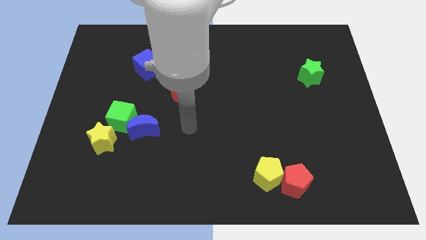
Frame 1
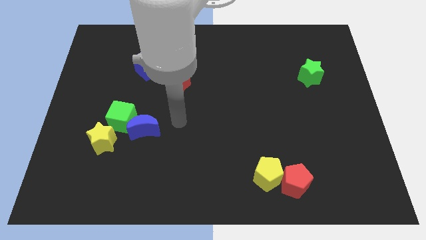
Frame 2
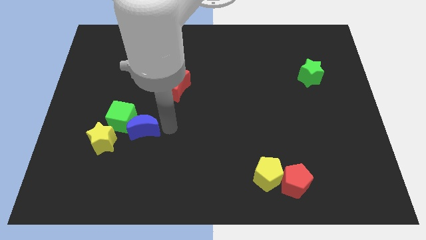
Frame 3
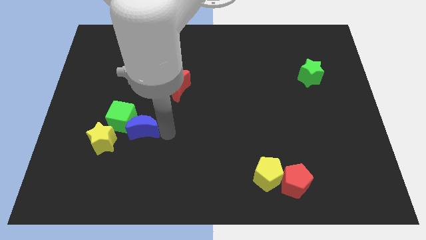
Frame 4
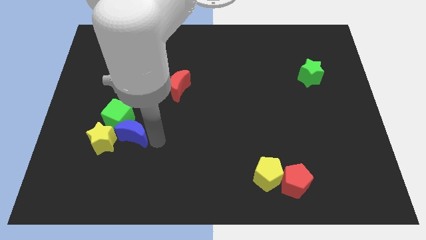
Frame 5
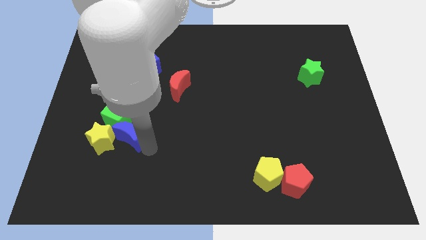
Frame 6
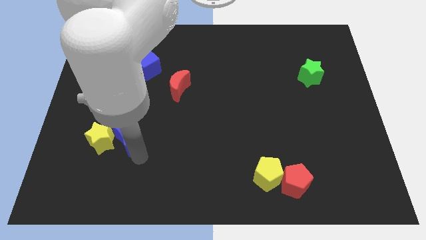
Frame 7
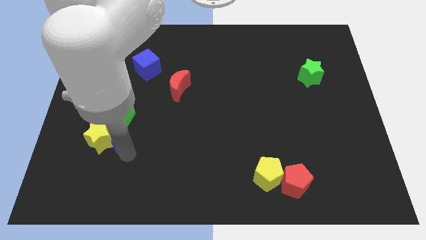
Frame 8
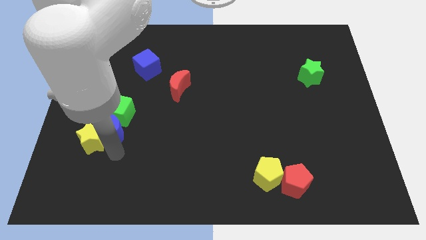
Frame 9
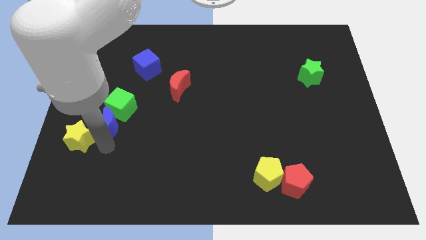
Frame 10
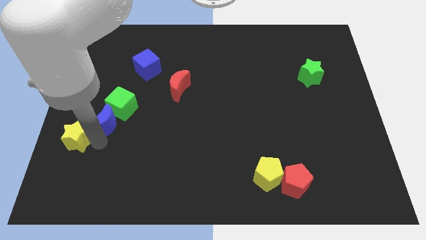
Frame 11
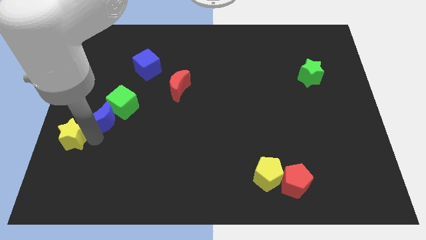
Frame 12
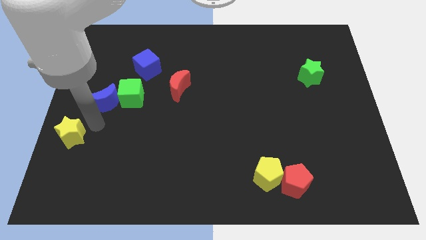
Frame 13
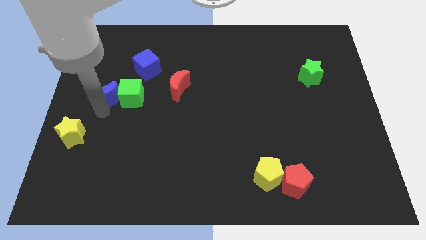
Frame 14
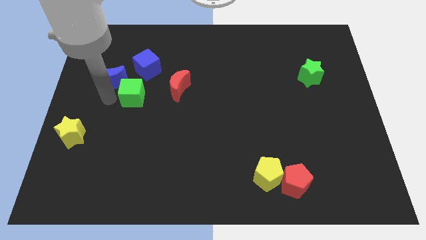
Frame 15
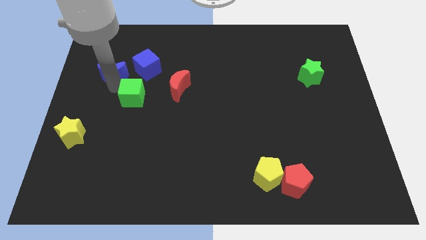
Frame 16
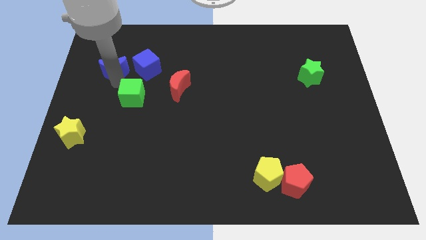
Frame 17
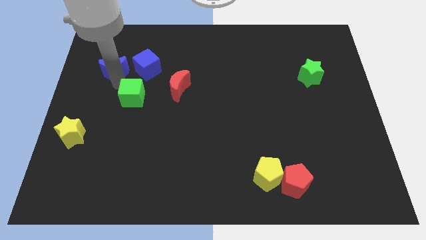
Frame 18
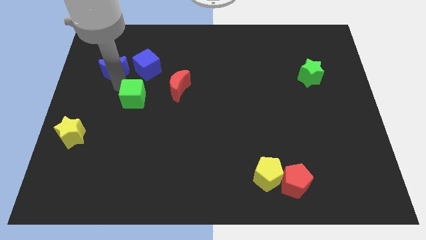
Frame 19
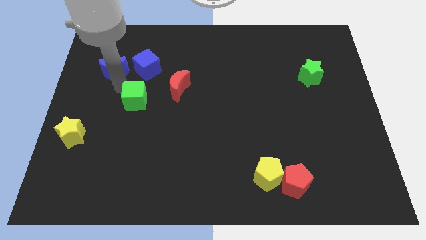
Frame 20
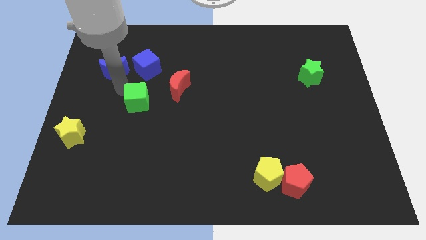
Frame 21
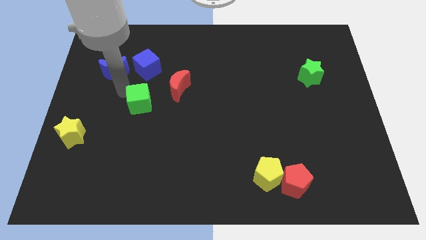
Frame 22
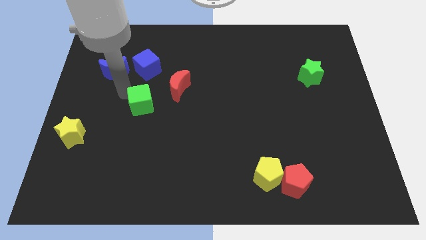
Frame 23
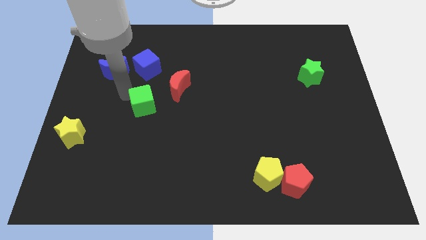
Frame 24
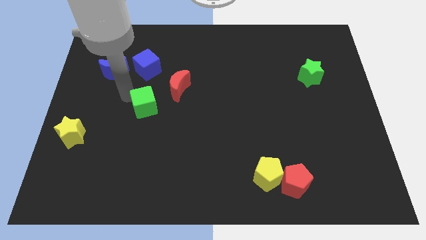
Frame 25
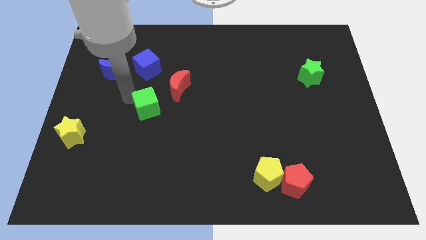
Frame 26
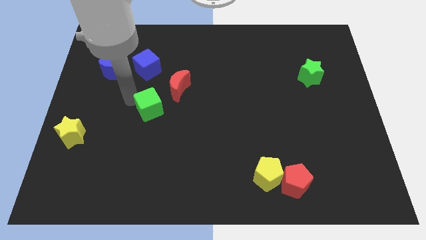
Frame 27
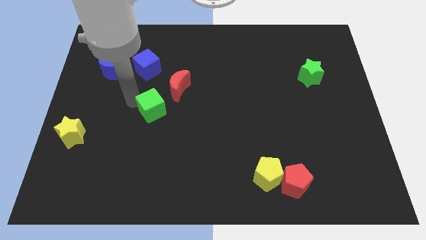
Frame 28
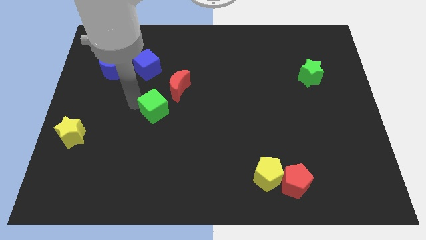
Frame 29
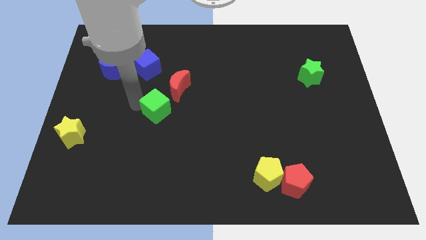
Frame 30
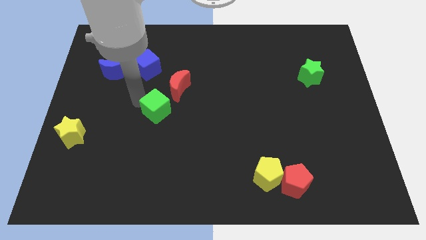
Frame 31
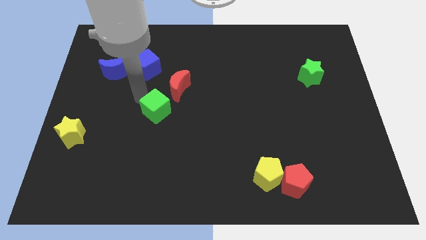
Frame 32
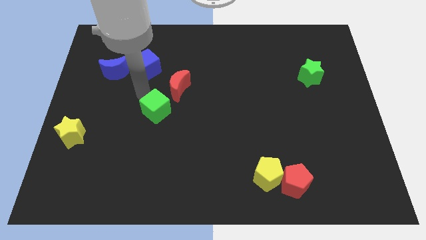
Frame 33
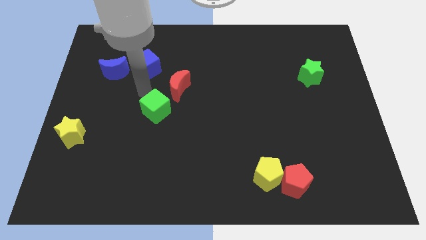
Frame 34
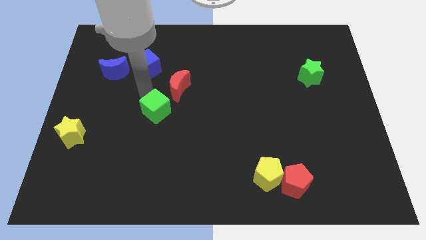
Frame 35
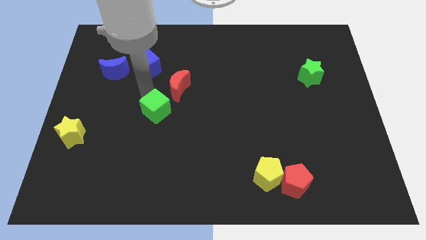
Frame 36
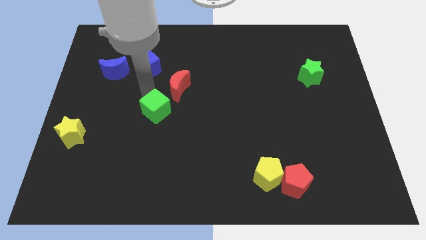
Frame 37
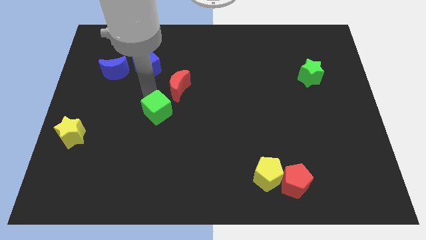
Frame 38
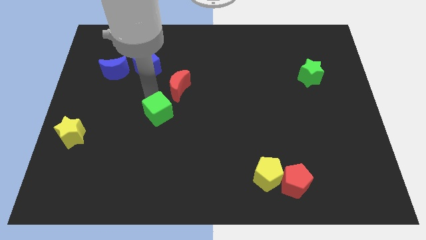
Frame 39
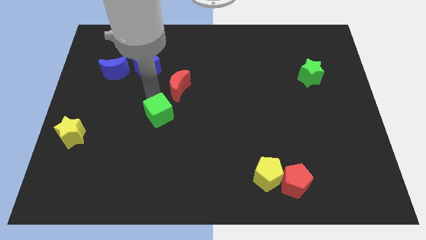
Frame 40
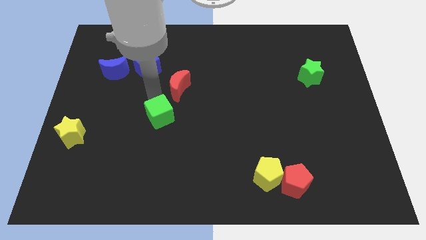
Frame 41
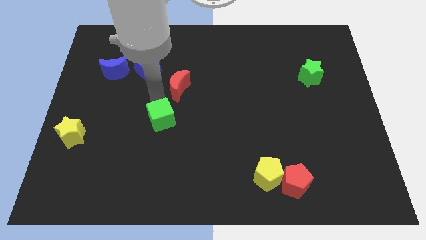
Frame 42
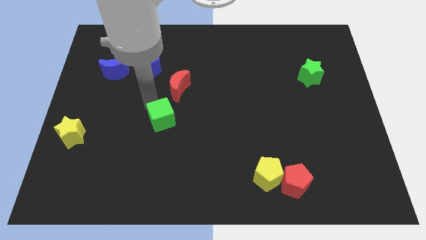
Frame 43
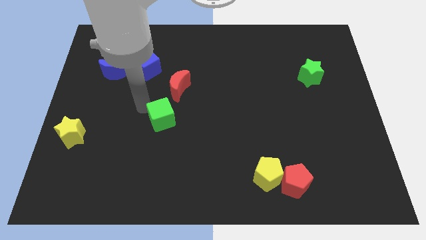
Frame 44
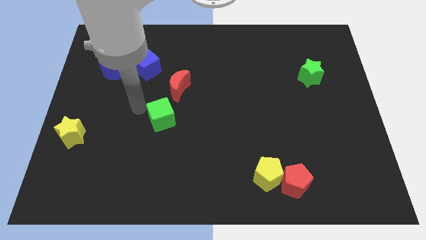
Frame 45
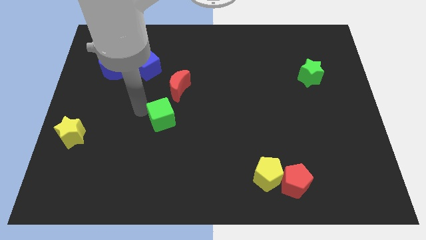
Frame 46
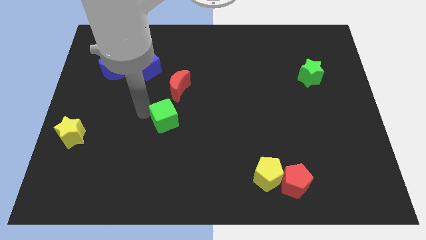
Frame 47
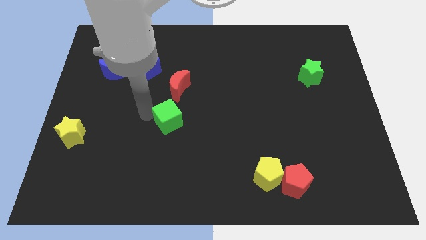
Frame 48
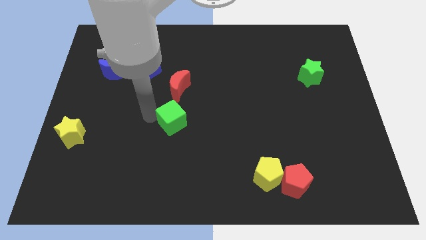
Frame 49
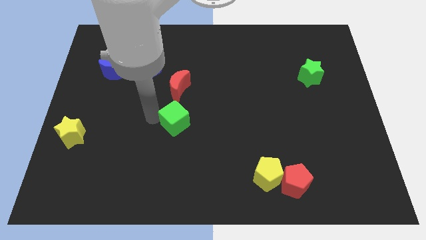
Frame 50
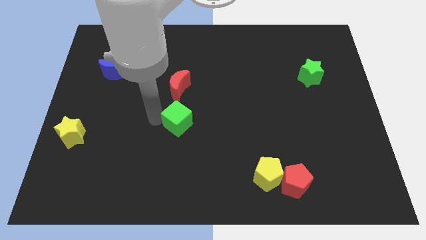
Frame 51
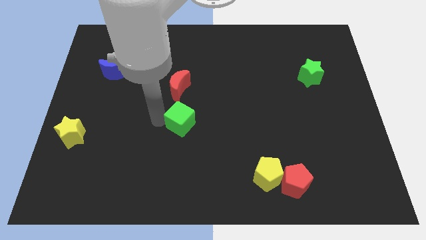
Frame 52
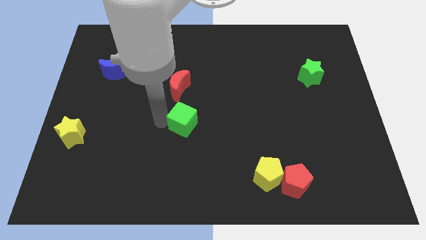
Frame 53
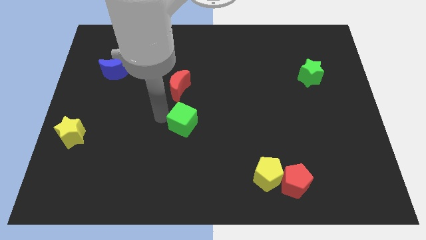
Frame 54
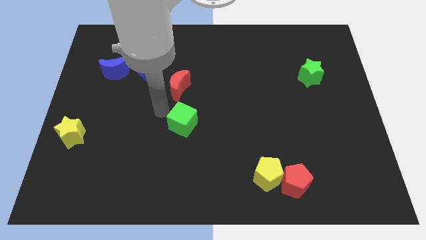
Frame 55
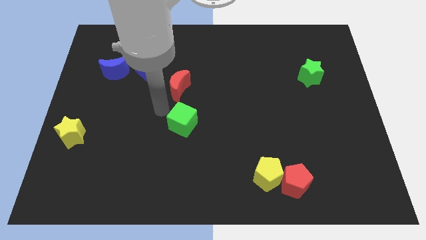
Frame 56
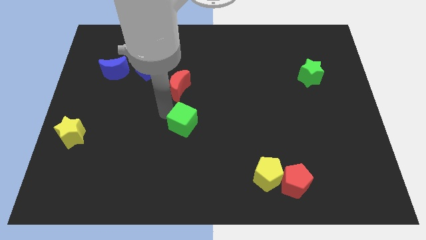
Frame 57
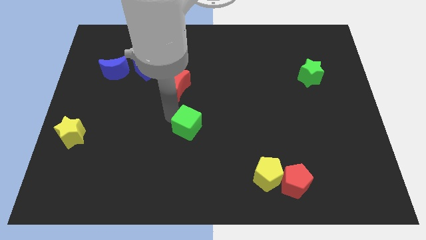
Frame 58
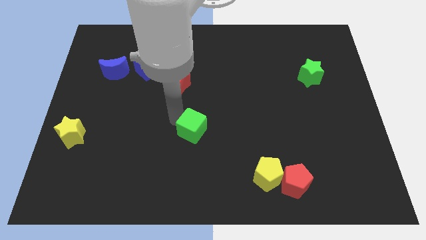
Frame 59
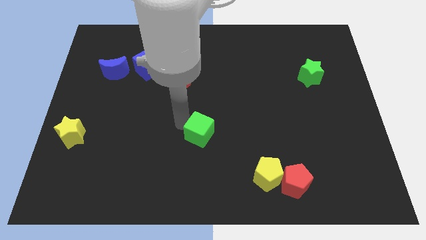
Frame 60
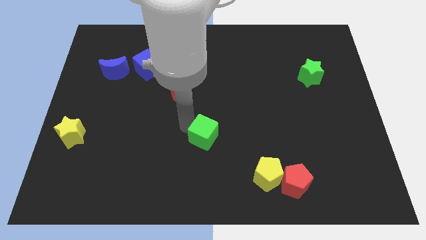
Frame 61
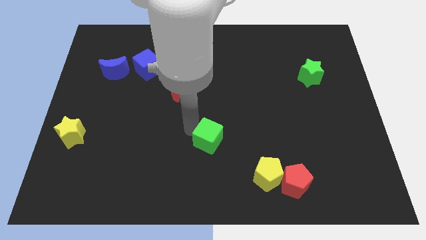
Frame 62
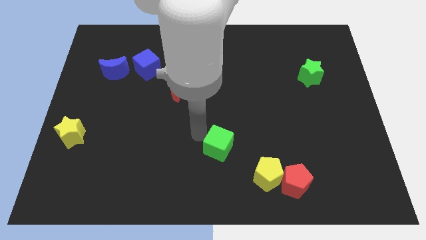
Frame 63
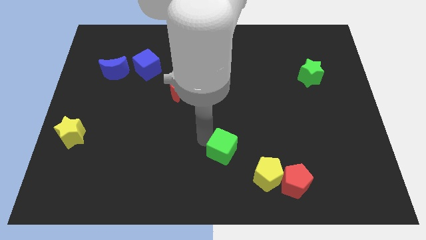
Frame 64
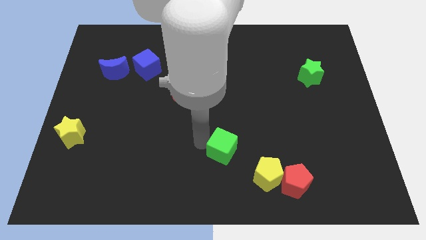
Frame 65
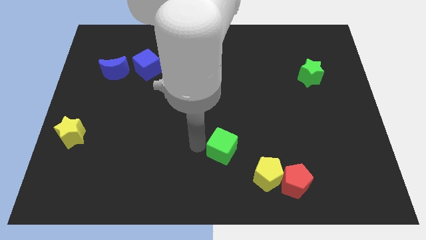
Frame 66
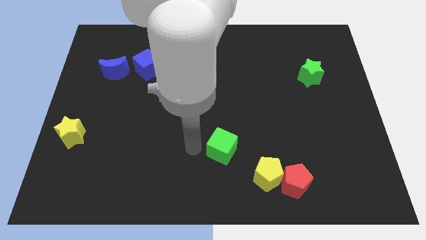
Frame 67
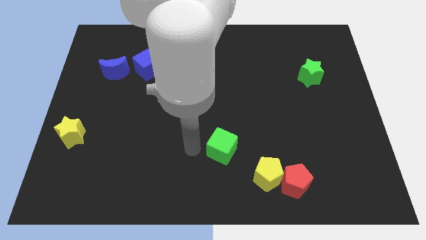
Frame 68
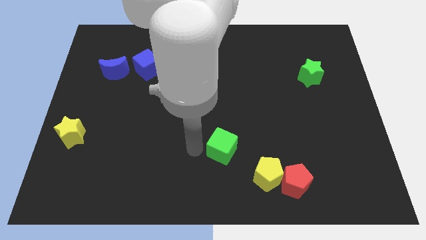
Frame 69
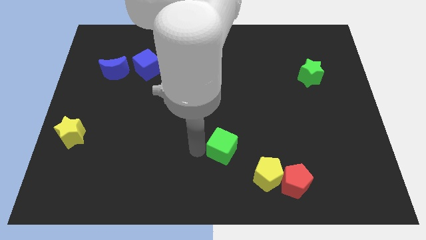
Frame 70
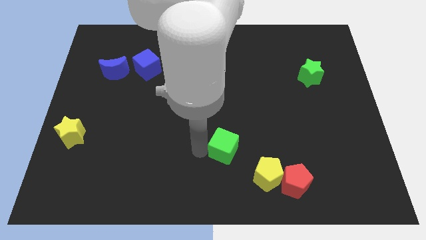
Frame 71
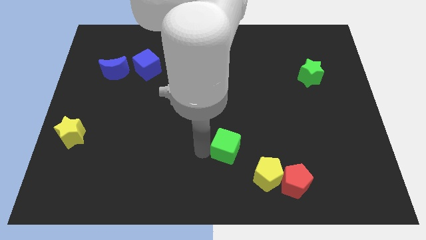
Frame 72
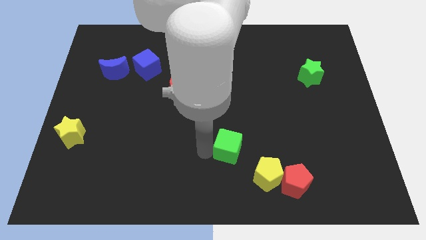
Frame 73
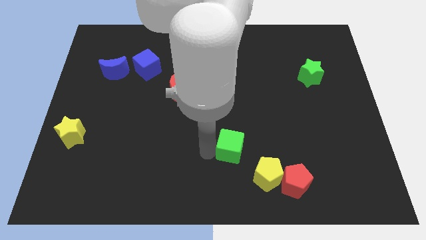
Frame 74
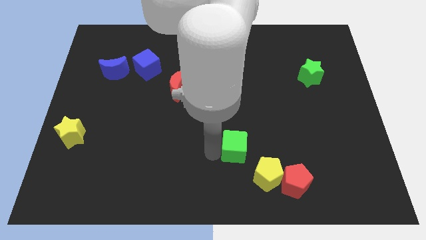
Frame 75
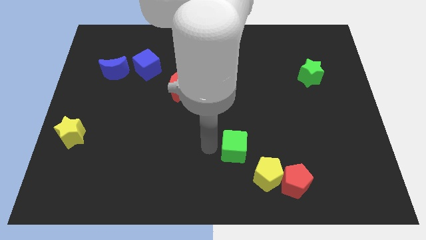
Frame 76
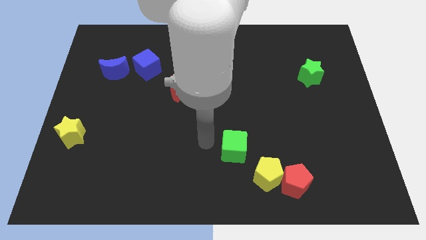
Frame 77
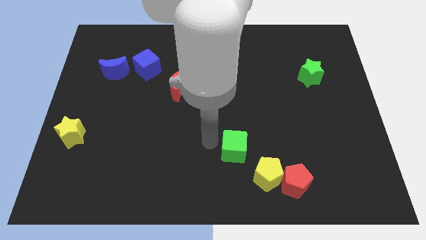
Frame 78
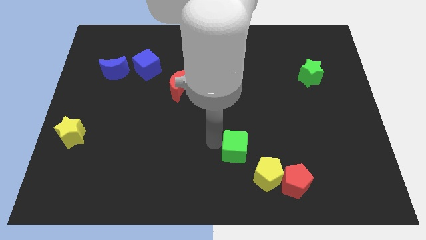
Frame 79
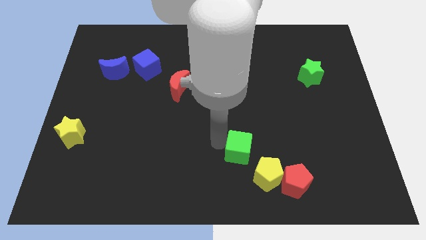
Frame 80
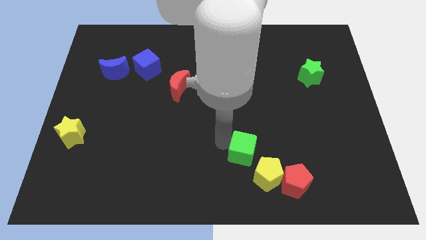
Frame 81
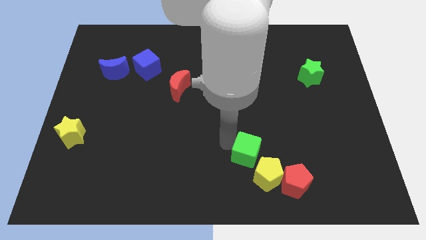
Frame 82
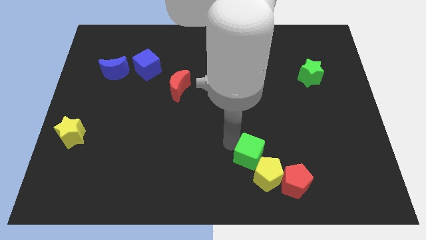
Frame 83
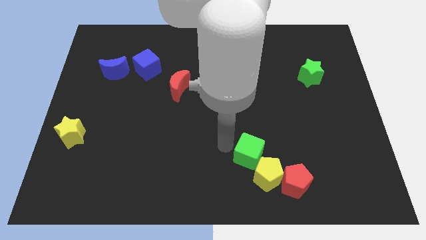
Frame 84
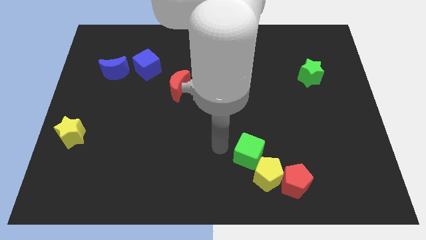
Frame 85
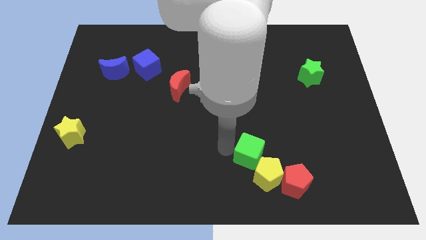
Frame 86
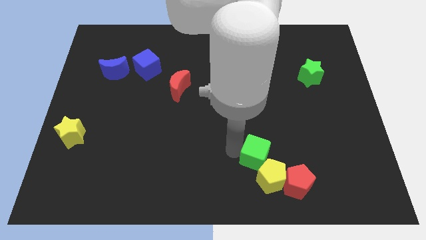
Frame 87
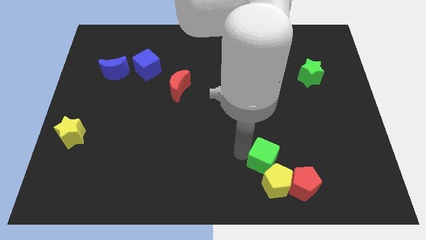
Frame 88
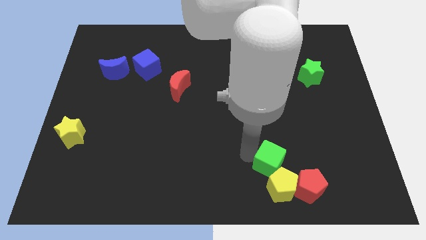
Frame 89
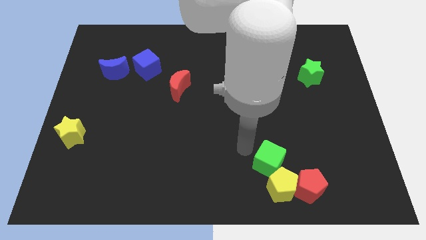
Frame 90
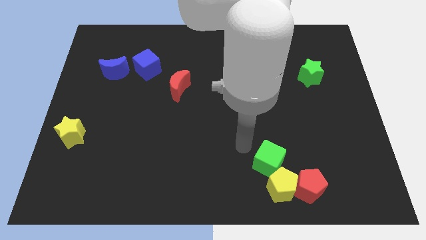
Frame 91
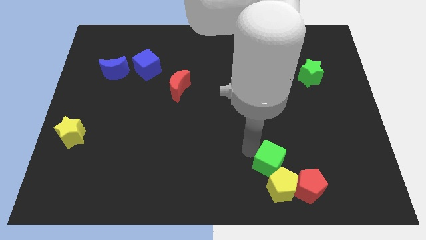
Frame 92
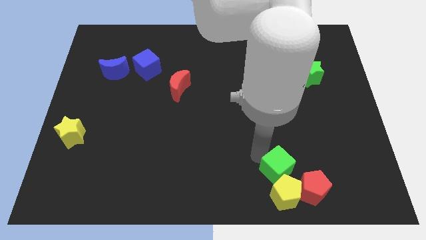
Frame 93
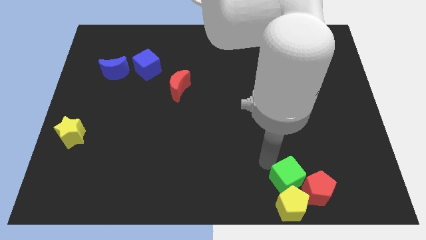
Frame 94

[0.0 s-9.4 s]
put the green cube to the red pentagon
